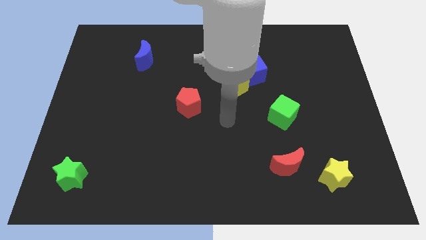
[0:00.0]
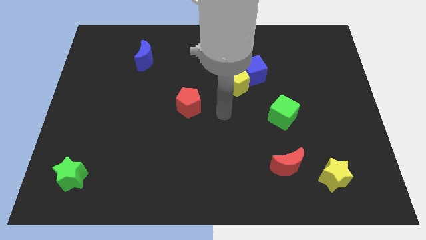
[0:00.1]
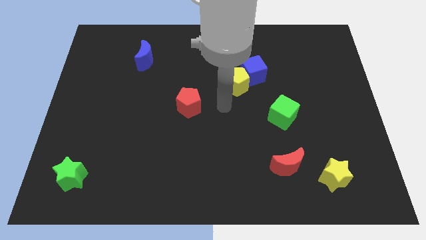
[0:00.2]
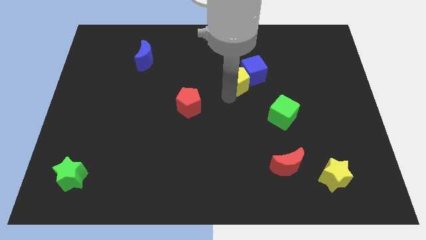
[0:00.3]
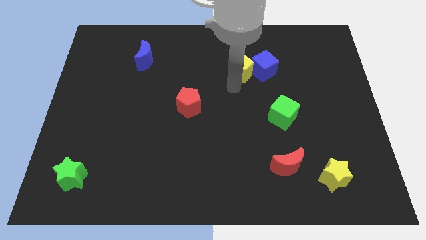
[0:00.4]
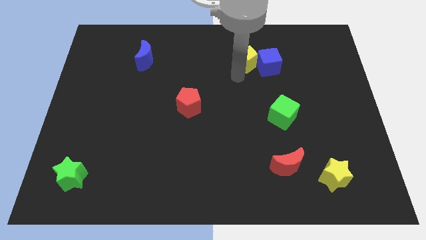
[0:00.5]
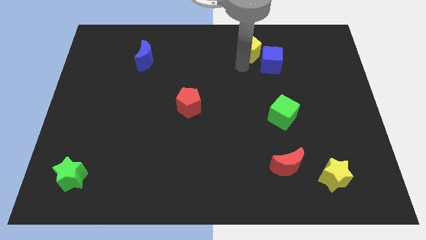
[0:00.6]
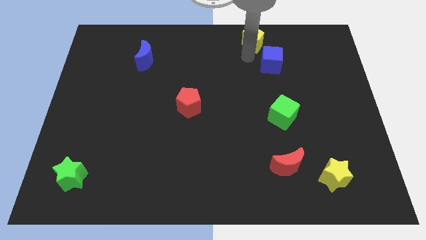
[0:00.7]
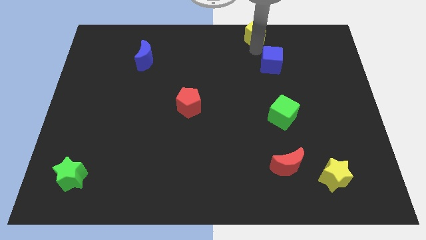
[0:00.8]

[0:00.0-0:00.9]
separate the blue cube from the yellow pentagon

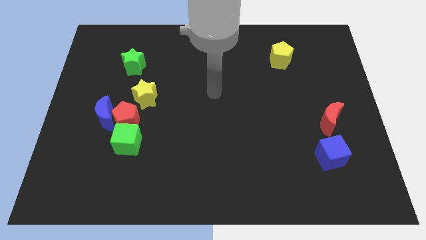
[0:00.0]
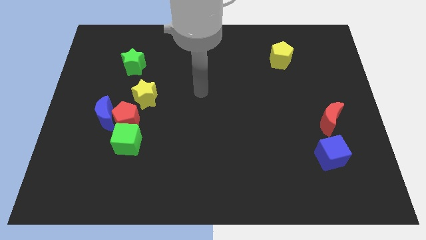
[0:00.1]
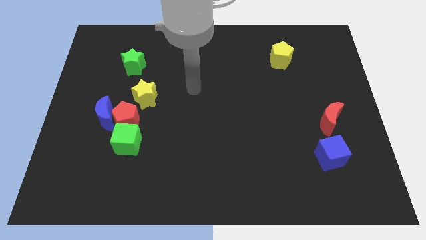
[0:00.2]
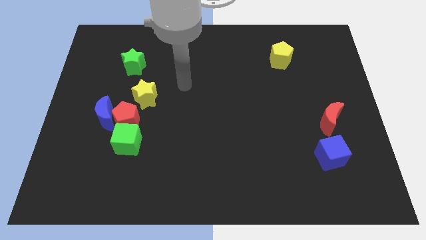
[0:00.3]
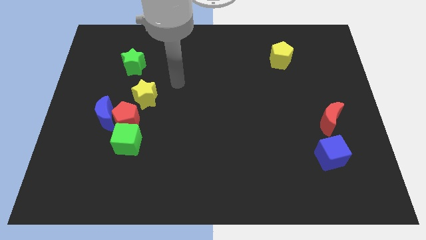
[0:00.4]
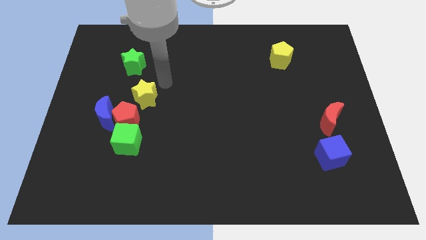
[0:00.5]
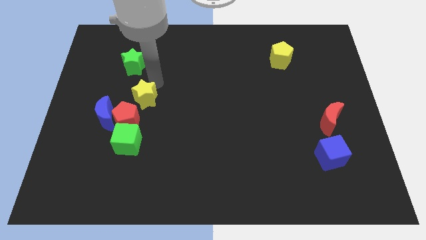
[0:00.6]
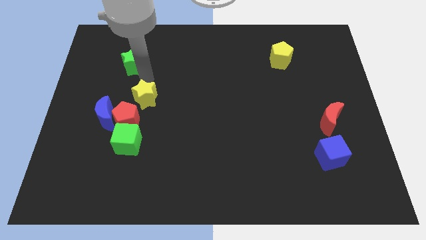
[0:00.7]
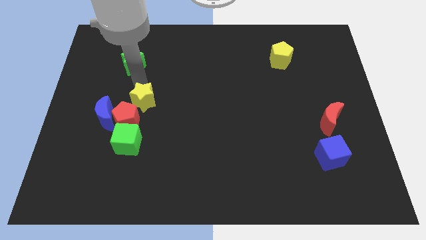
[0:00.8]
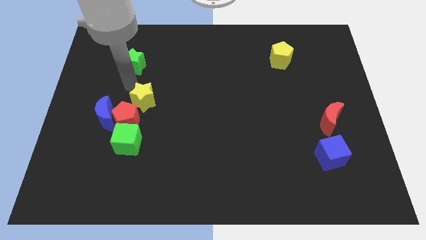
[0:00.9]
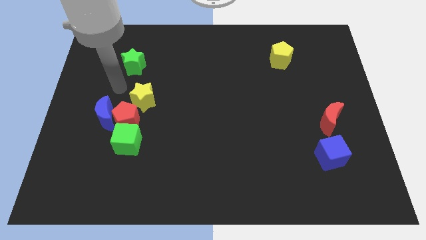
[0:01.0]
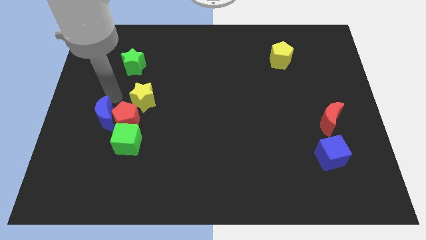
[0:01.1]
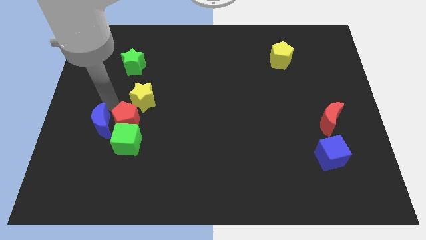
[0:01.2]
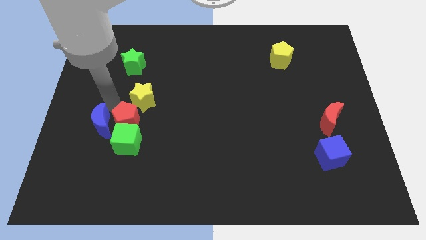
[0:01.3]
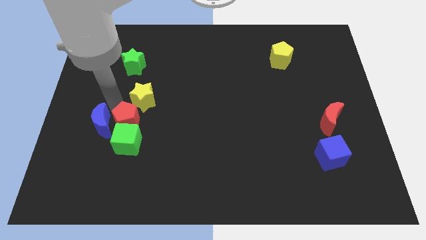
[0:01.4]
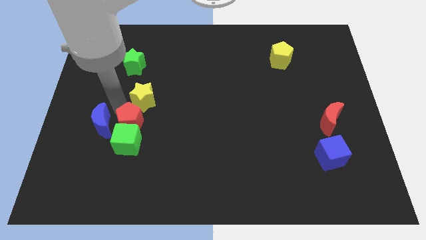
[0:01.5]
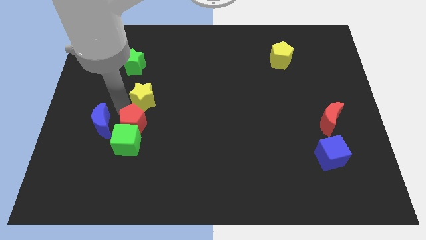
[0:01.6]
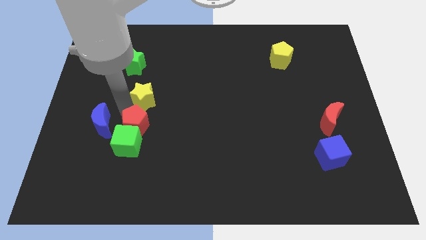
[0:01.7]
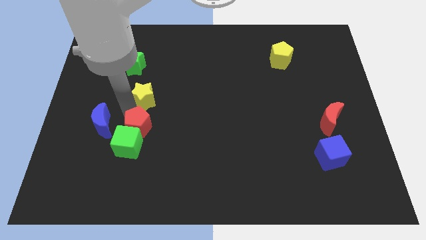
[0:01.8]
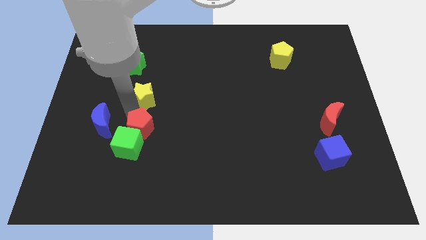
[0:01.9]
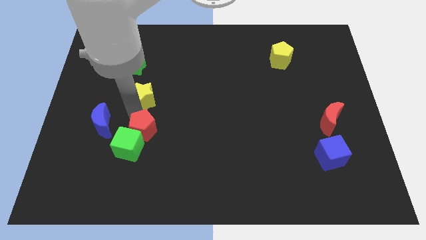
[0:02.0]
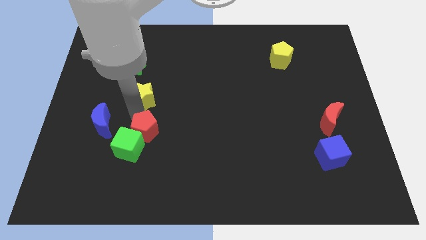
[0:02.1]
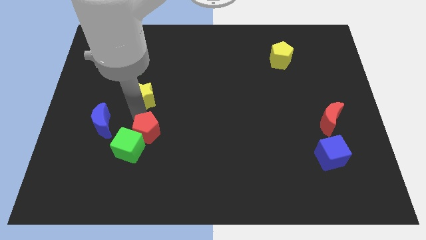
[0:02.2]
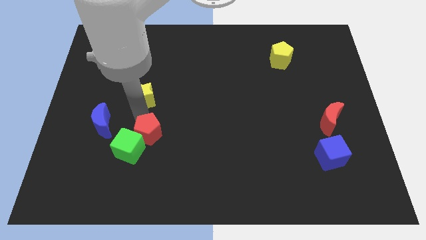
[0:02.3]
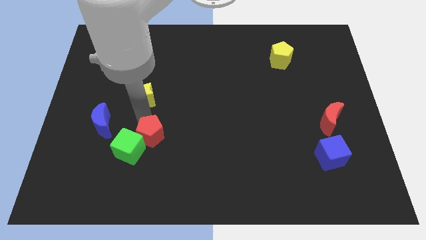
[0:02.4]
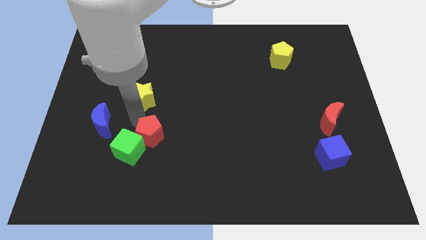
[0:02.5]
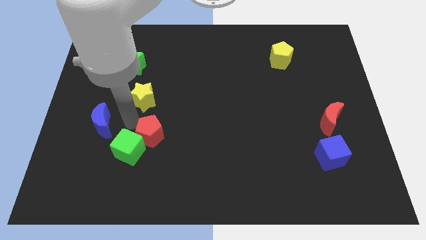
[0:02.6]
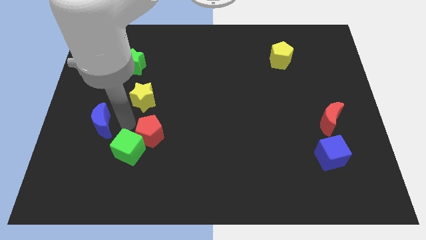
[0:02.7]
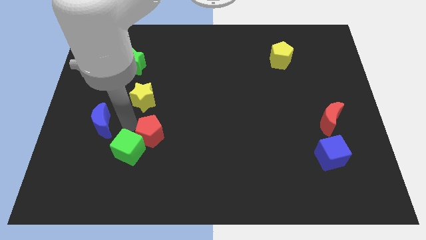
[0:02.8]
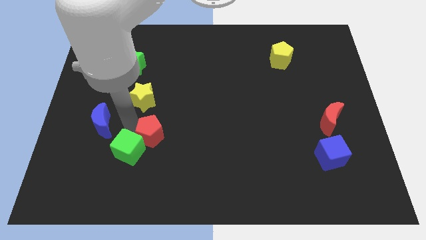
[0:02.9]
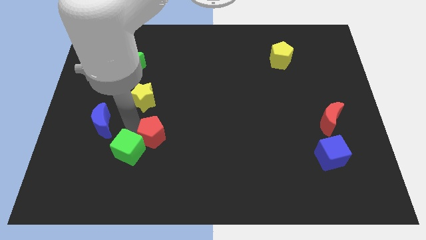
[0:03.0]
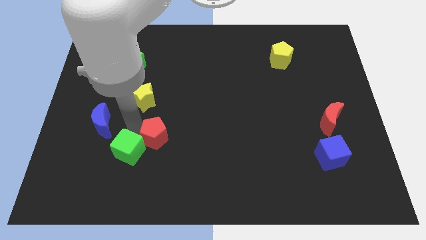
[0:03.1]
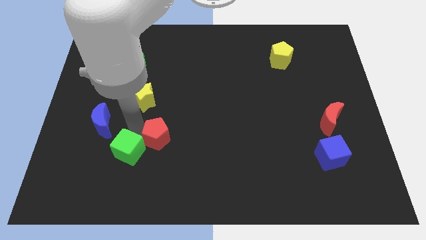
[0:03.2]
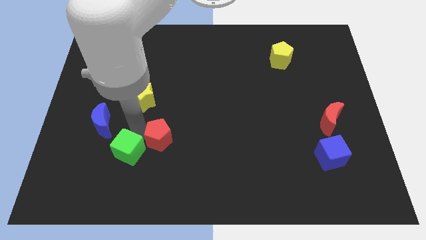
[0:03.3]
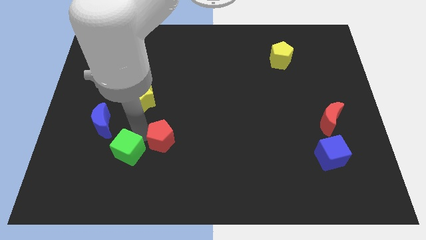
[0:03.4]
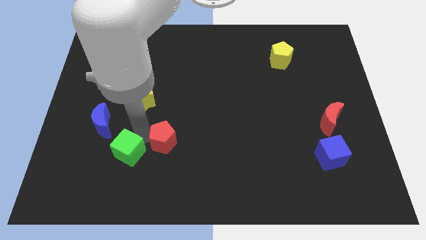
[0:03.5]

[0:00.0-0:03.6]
pull the red pentagon apart from the group of blocks

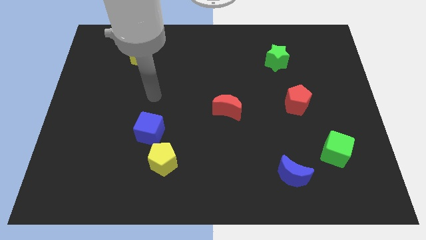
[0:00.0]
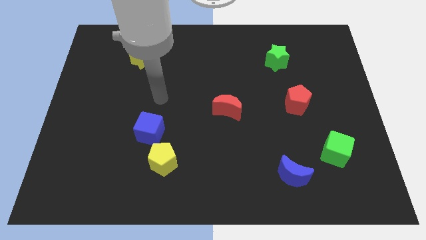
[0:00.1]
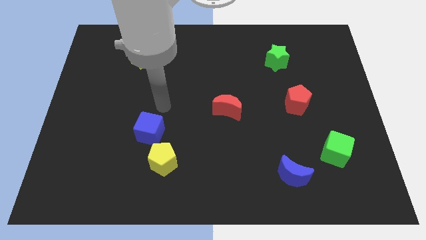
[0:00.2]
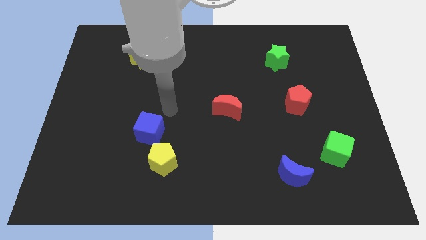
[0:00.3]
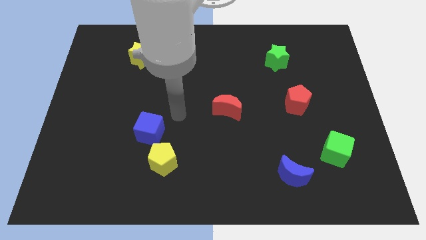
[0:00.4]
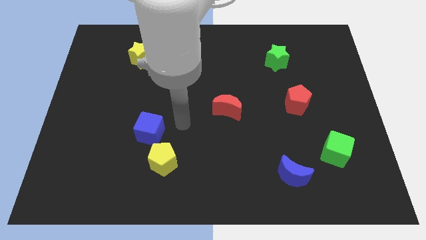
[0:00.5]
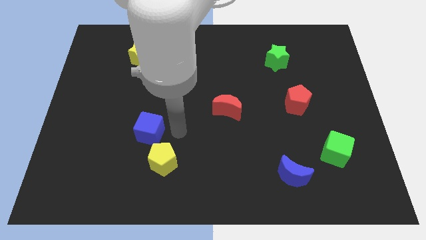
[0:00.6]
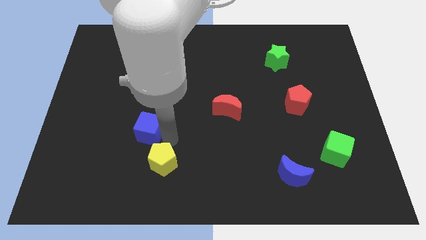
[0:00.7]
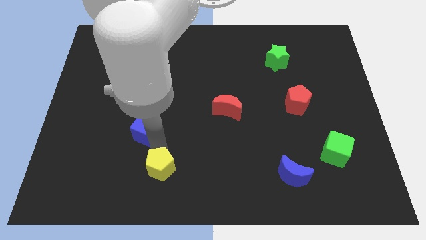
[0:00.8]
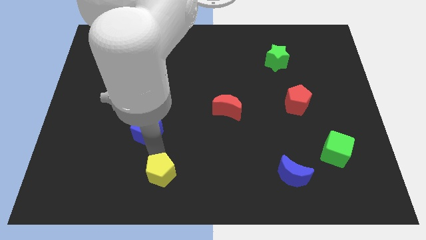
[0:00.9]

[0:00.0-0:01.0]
pull the blue cube apart from the yellow pentagon

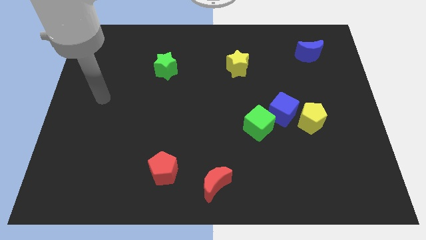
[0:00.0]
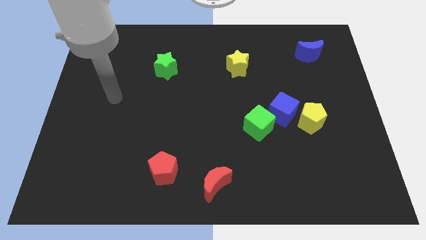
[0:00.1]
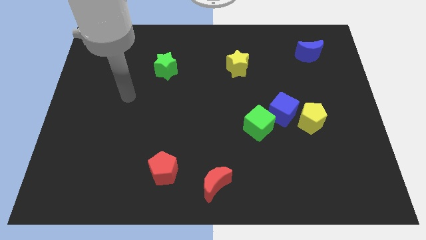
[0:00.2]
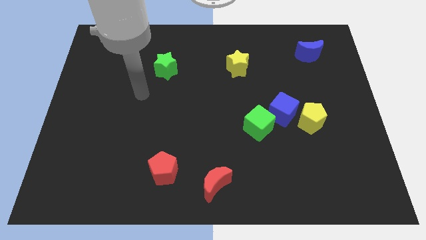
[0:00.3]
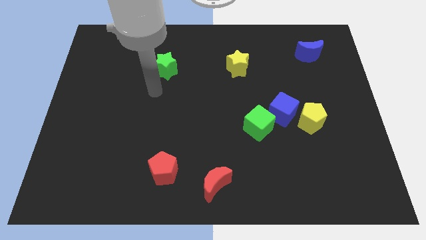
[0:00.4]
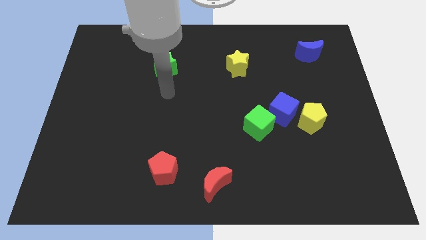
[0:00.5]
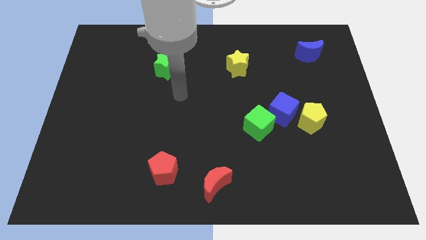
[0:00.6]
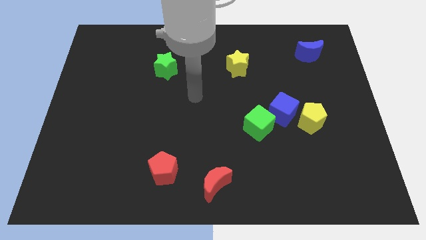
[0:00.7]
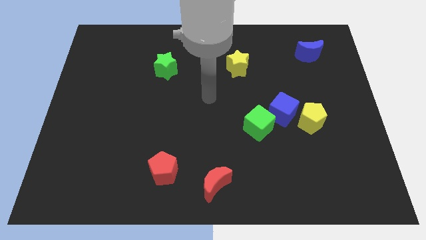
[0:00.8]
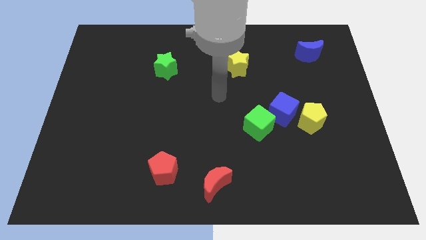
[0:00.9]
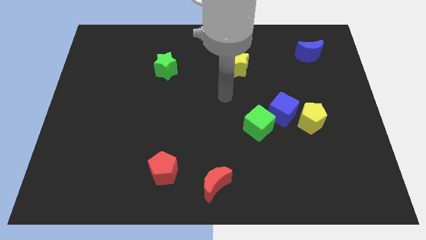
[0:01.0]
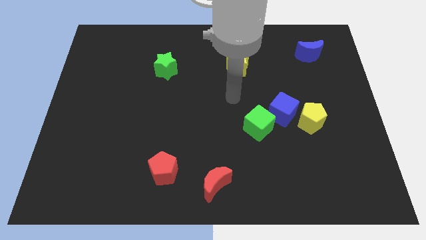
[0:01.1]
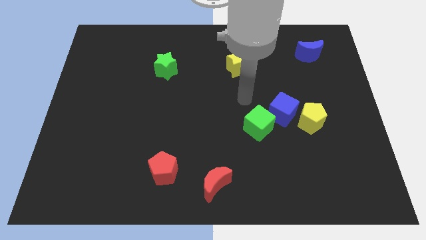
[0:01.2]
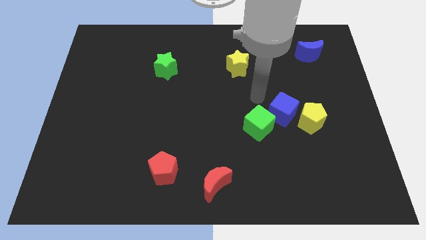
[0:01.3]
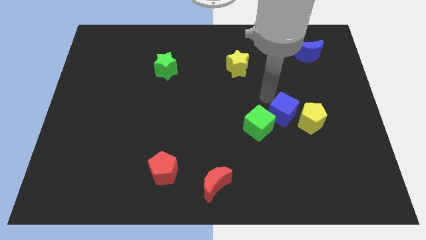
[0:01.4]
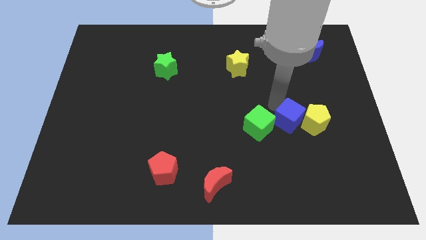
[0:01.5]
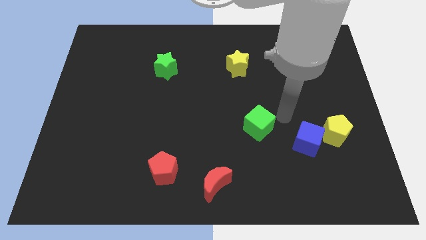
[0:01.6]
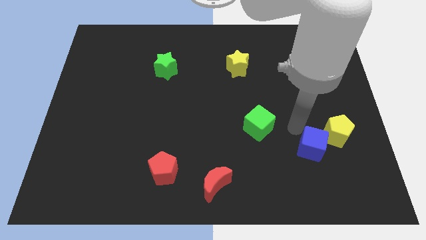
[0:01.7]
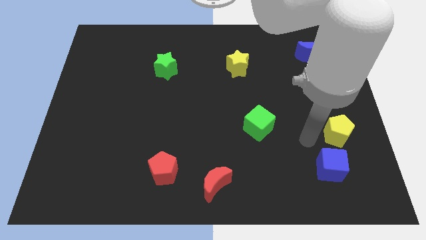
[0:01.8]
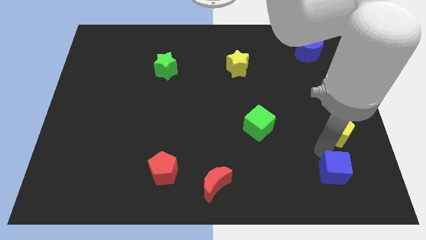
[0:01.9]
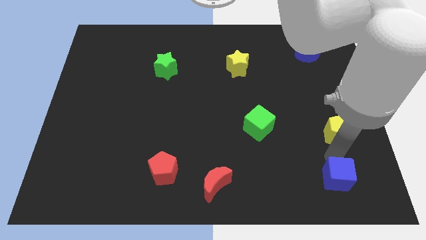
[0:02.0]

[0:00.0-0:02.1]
move the yellow pentagon away from the blue cube

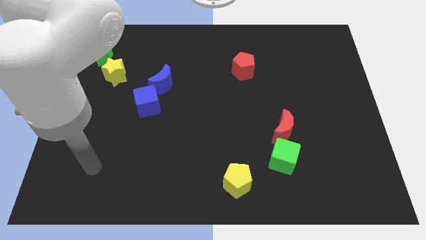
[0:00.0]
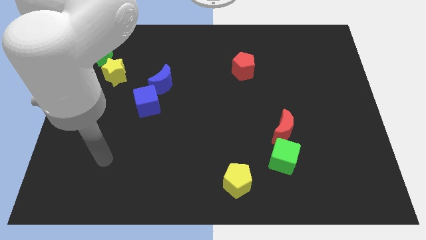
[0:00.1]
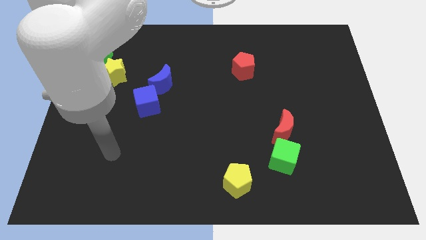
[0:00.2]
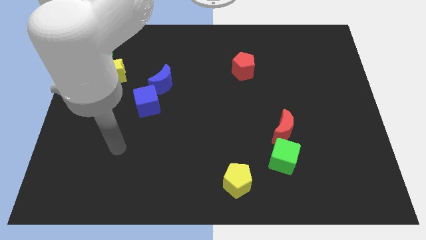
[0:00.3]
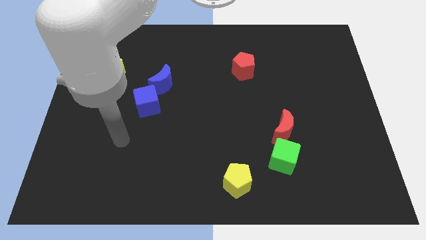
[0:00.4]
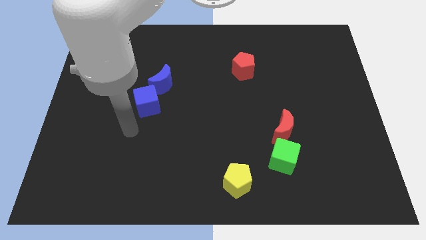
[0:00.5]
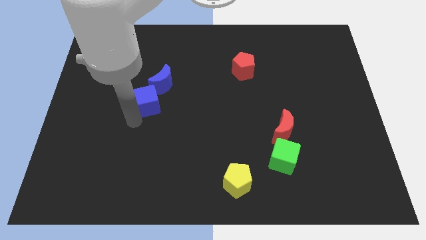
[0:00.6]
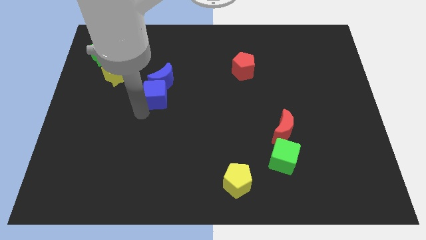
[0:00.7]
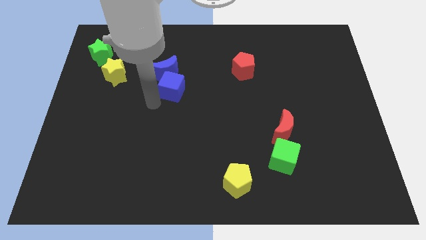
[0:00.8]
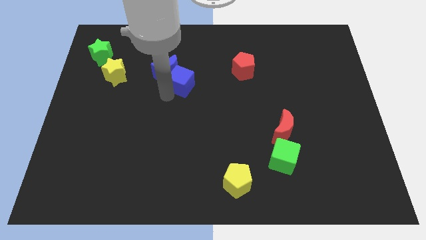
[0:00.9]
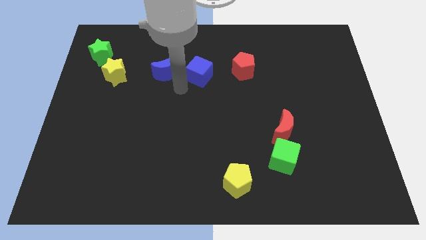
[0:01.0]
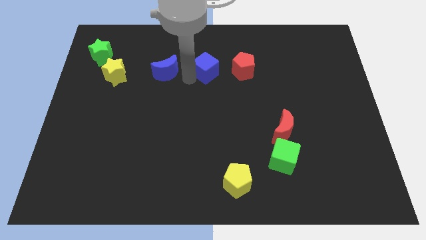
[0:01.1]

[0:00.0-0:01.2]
separate the blue moon from the blue cube

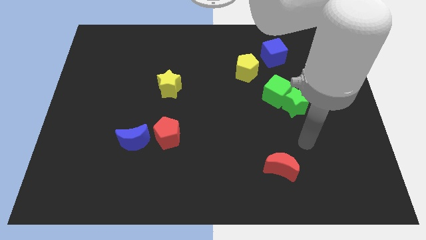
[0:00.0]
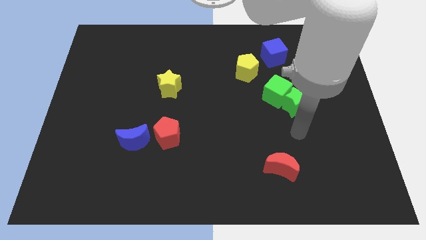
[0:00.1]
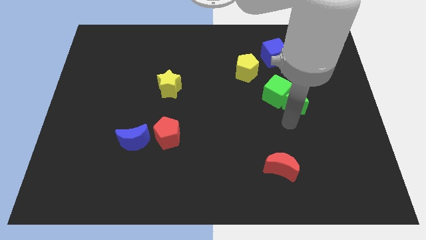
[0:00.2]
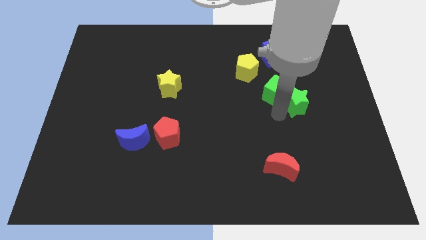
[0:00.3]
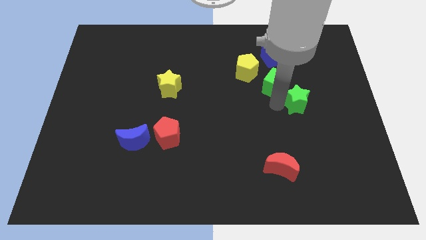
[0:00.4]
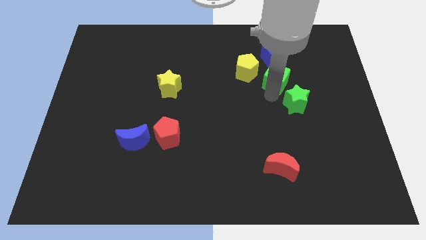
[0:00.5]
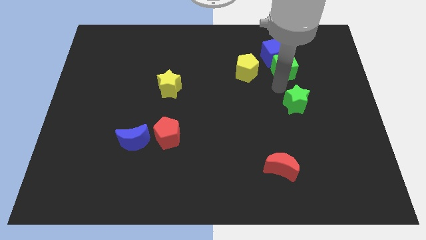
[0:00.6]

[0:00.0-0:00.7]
separate the green star from the green cube
